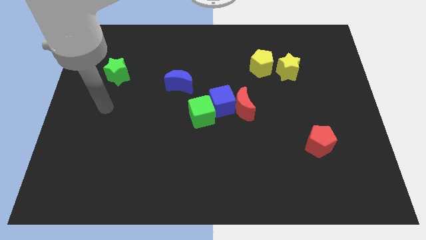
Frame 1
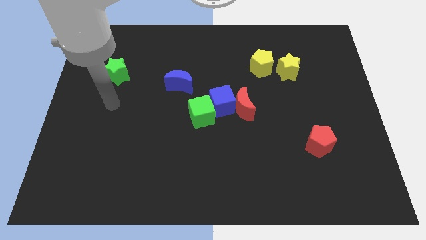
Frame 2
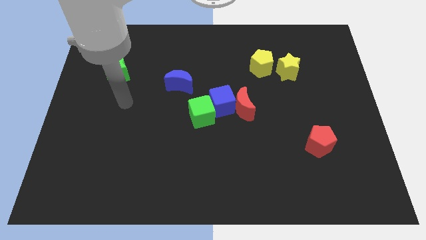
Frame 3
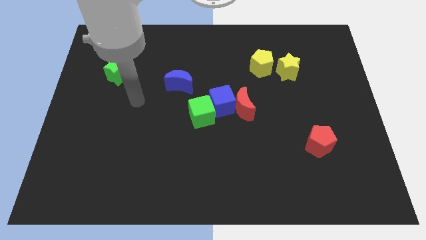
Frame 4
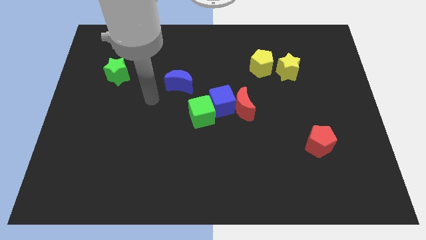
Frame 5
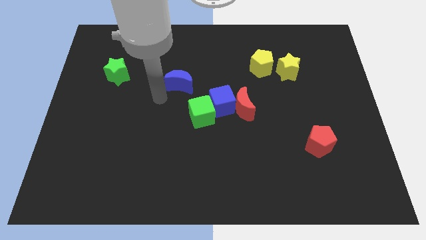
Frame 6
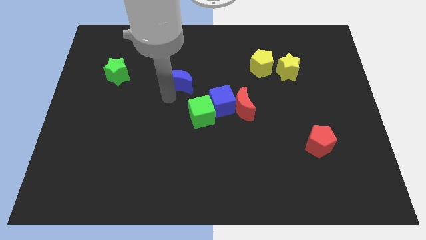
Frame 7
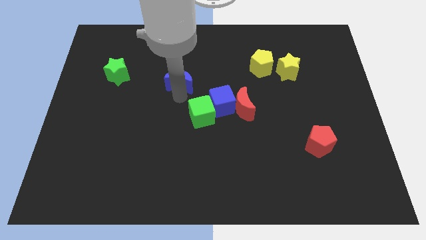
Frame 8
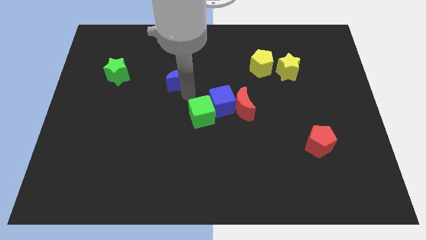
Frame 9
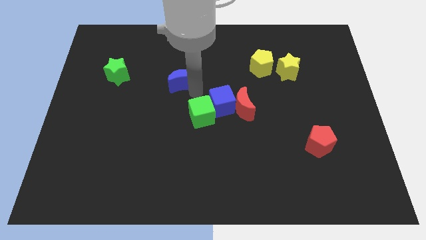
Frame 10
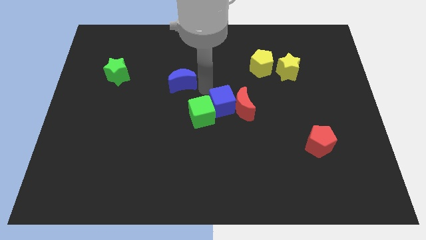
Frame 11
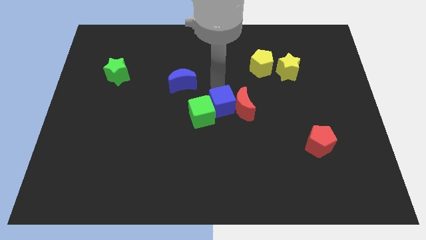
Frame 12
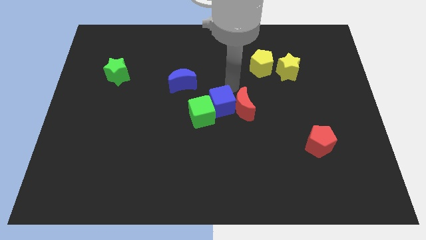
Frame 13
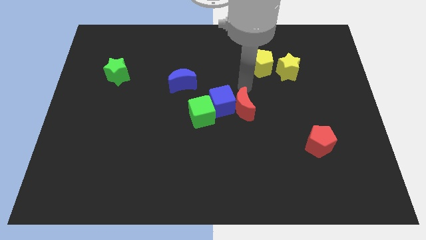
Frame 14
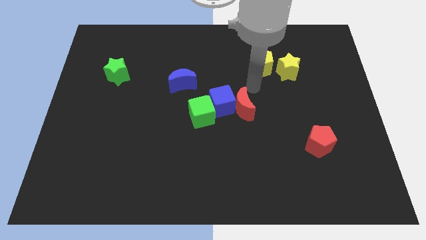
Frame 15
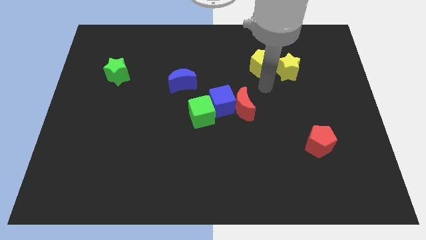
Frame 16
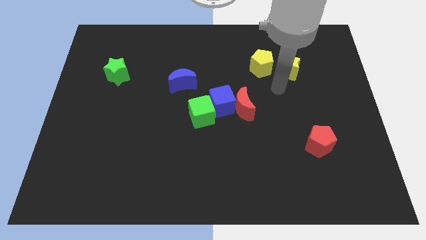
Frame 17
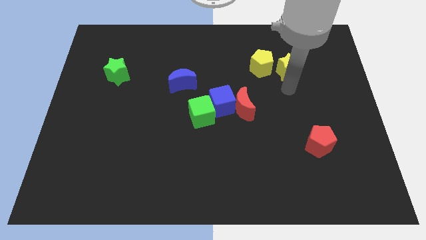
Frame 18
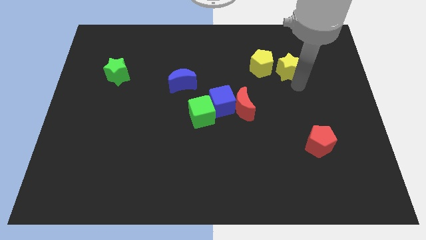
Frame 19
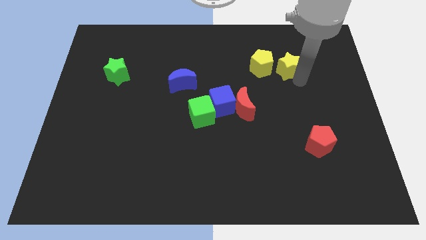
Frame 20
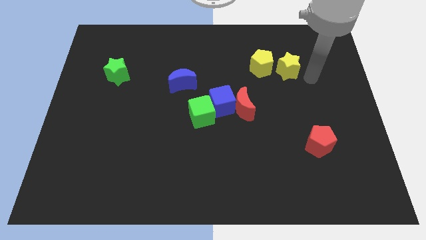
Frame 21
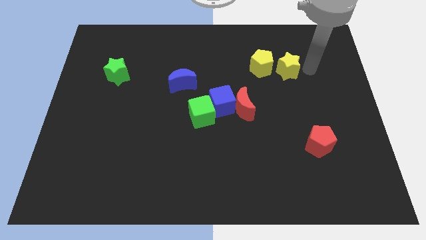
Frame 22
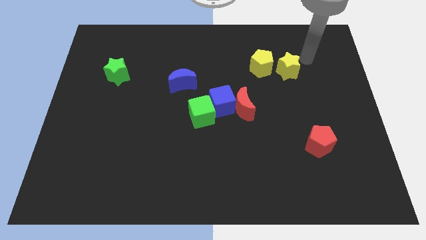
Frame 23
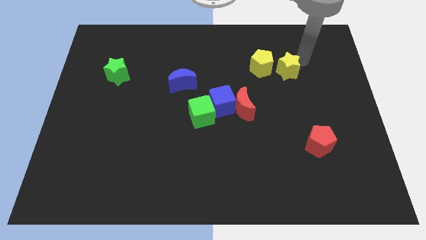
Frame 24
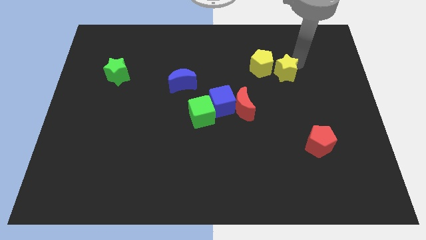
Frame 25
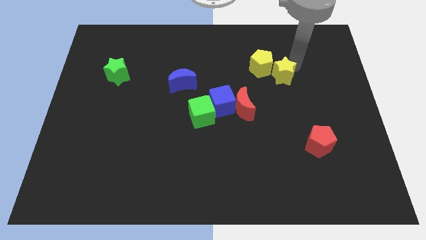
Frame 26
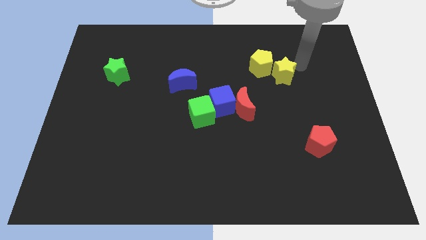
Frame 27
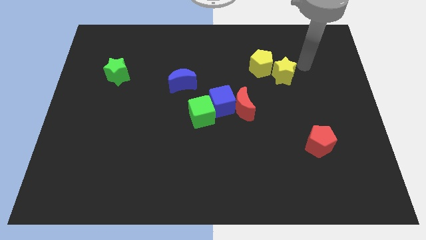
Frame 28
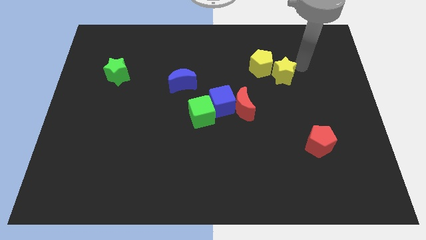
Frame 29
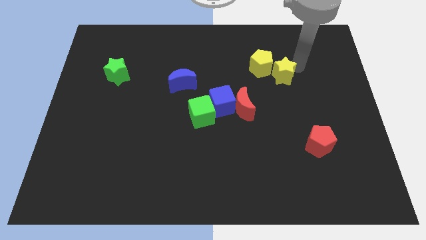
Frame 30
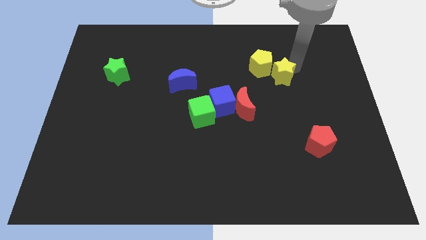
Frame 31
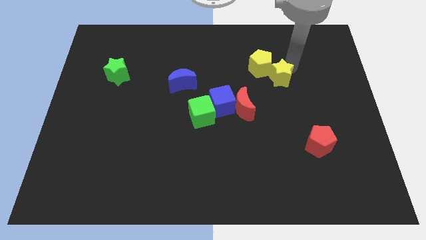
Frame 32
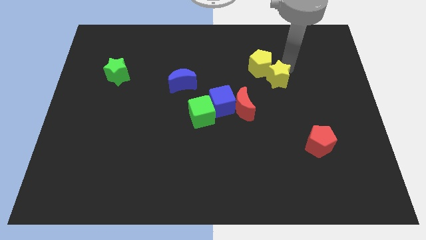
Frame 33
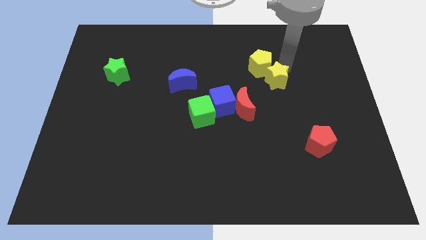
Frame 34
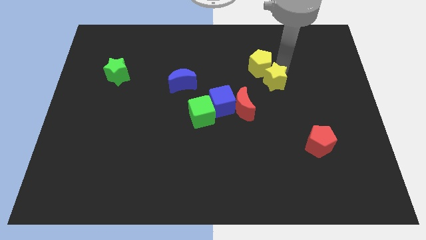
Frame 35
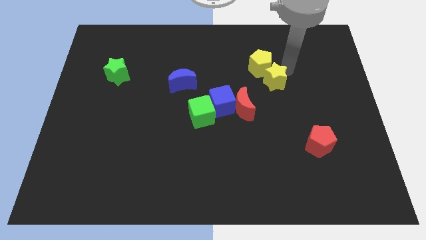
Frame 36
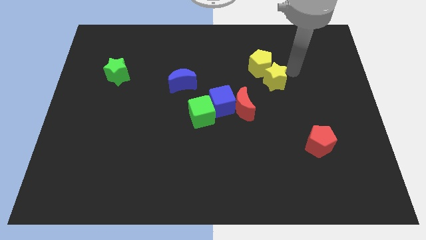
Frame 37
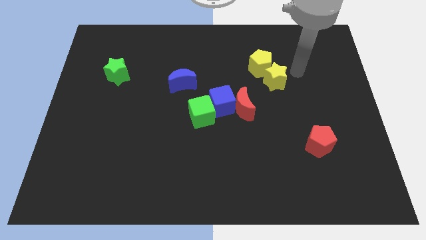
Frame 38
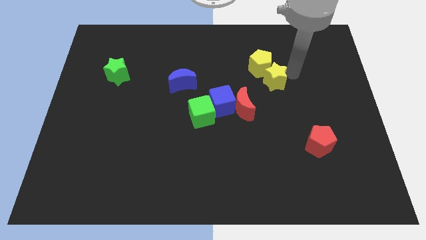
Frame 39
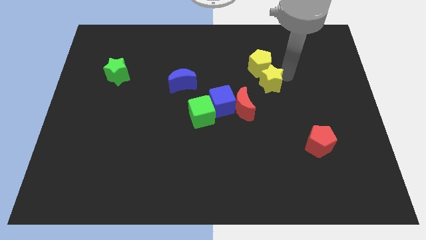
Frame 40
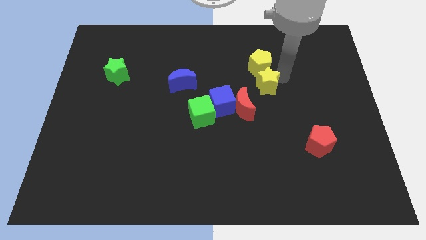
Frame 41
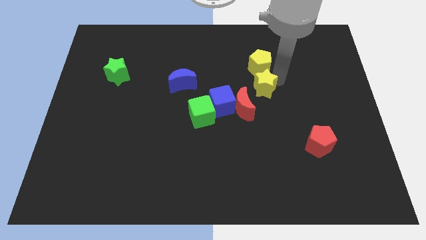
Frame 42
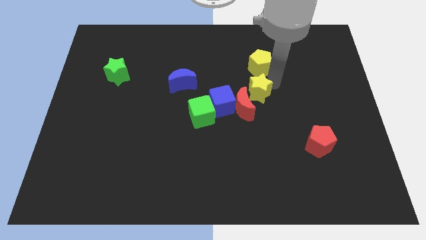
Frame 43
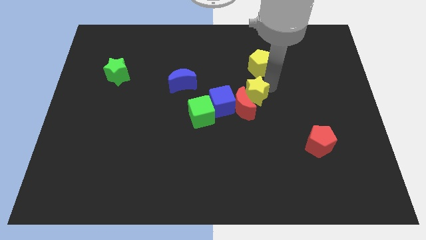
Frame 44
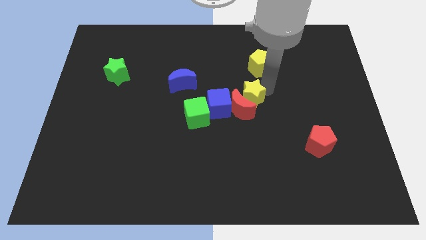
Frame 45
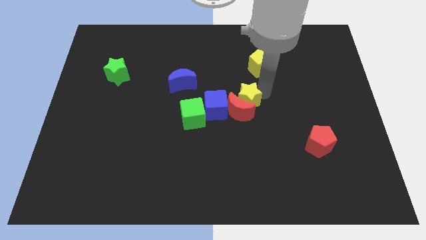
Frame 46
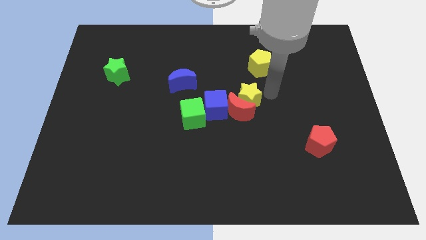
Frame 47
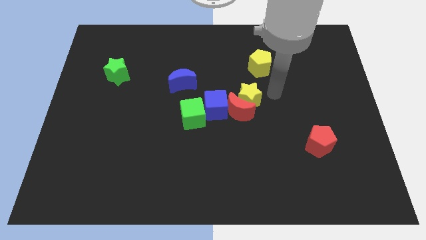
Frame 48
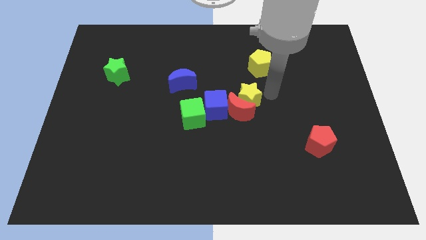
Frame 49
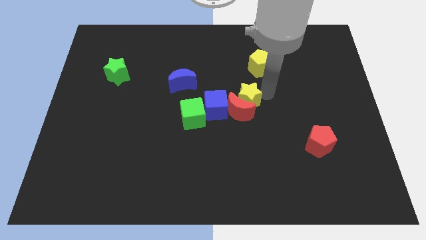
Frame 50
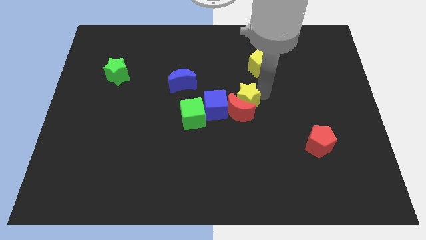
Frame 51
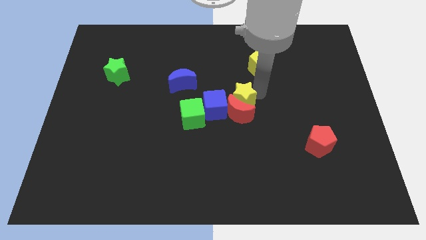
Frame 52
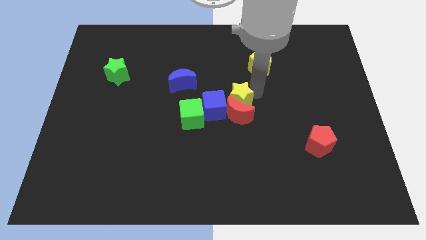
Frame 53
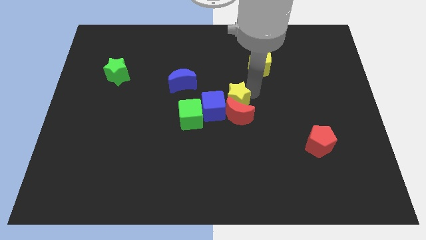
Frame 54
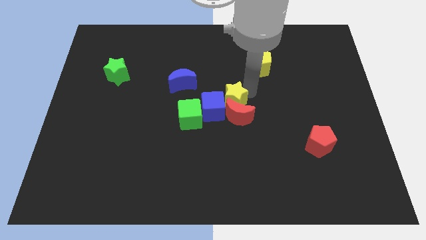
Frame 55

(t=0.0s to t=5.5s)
slide the yellow star towards the blue cube

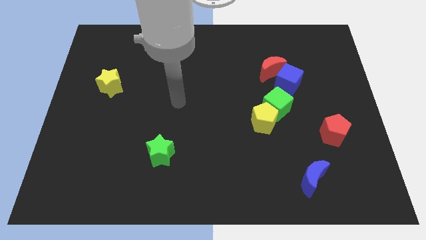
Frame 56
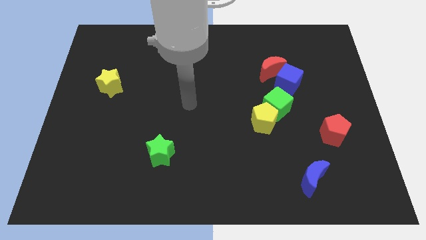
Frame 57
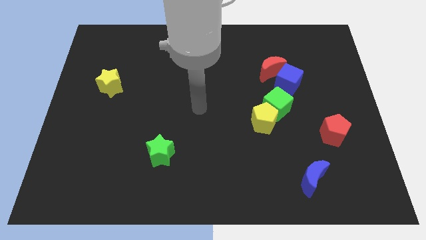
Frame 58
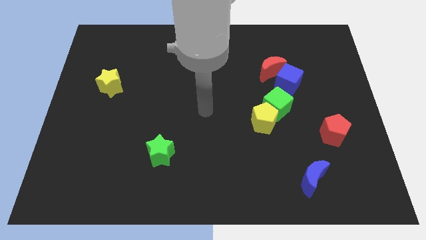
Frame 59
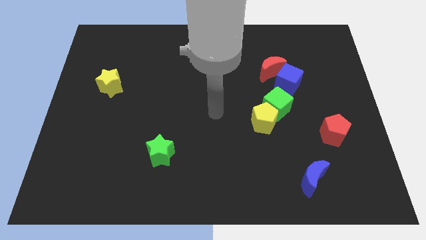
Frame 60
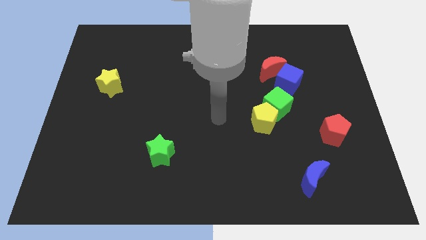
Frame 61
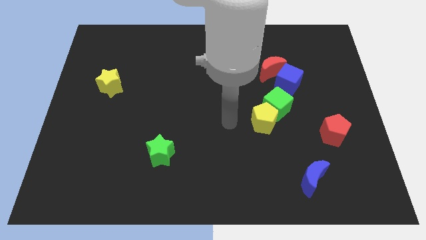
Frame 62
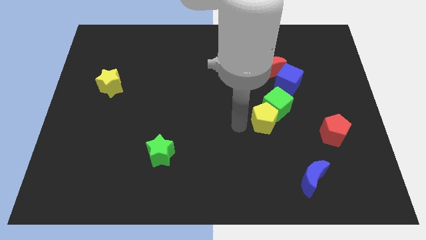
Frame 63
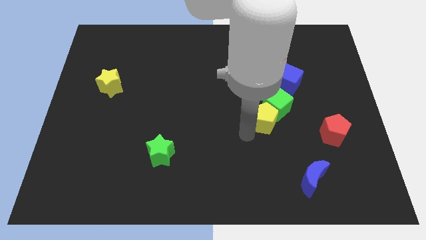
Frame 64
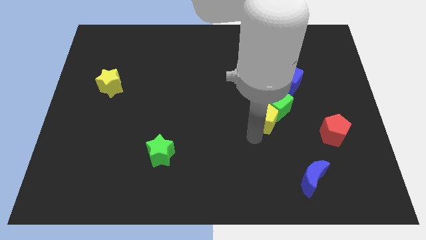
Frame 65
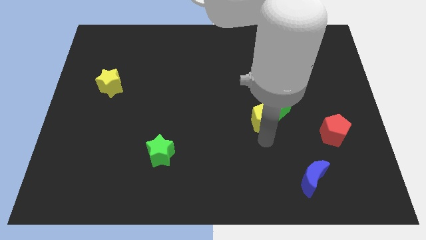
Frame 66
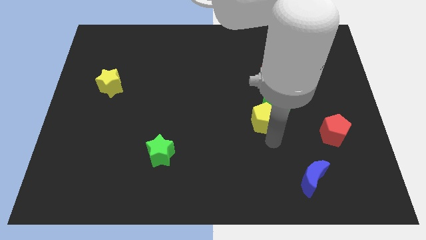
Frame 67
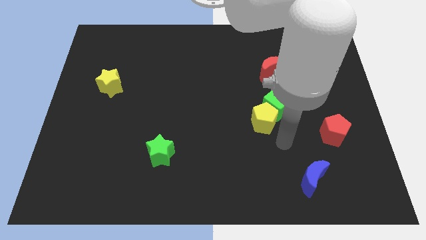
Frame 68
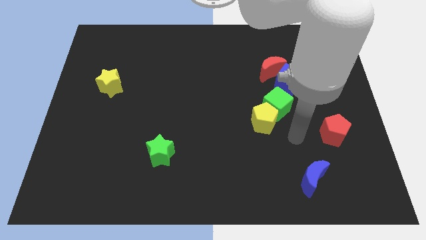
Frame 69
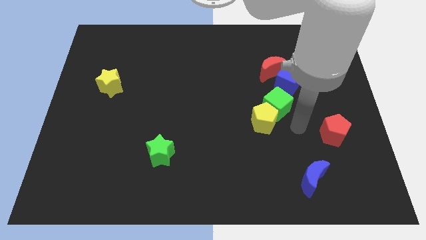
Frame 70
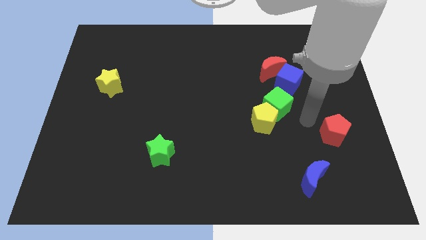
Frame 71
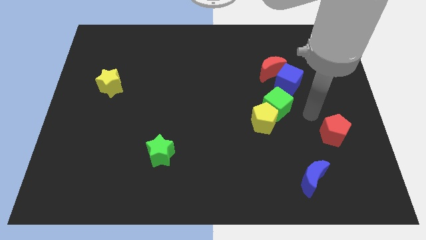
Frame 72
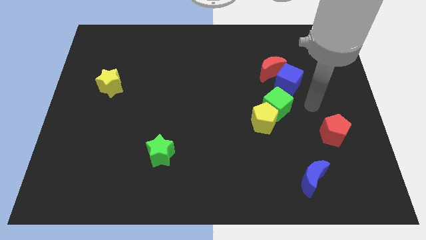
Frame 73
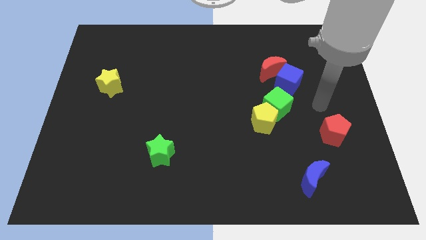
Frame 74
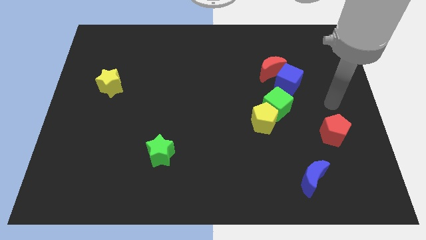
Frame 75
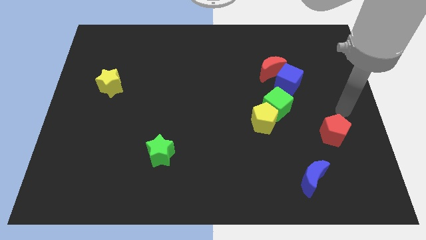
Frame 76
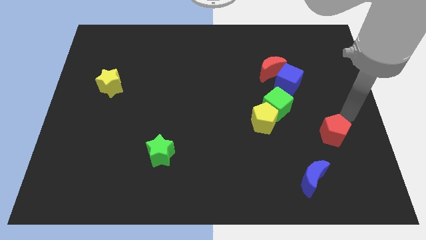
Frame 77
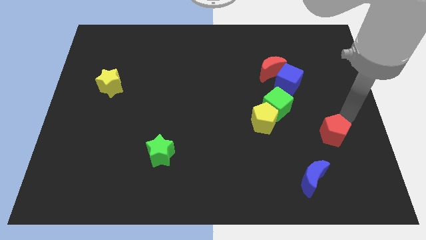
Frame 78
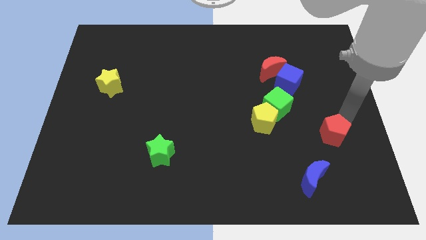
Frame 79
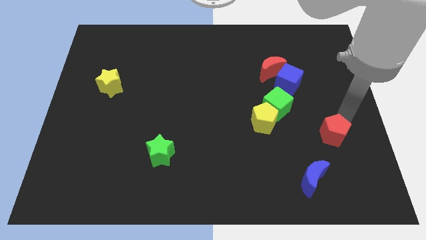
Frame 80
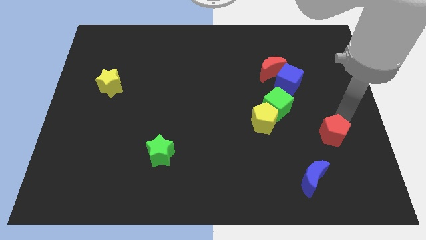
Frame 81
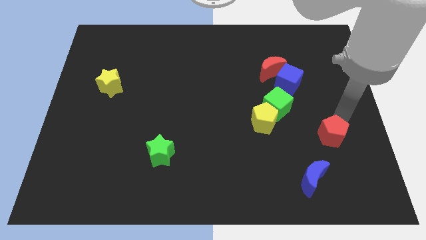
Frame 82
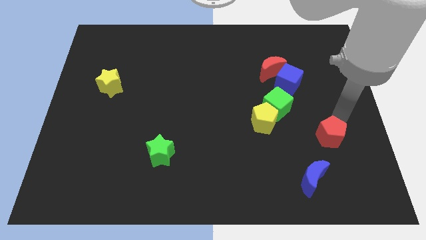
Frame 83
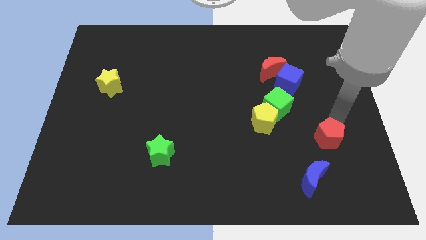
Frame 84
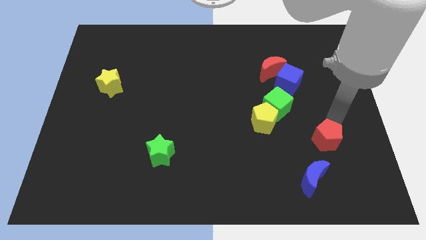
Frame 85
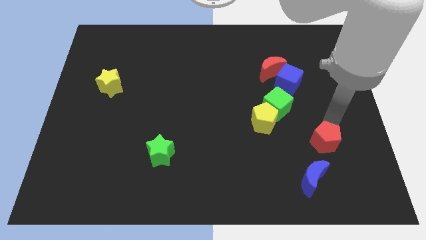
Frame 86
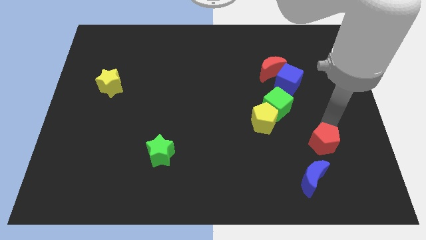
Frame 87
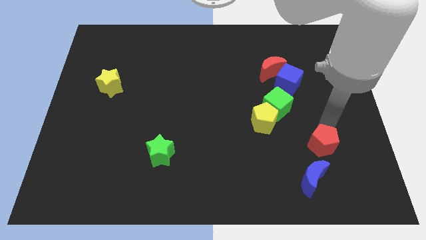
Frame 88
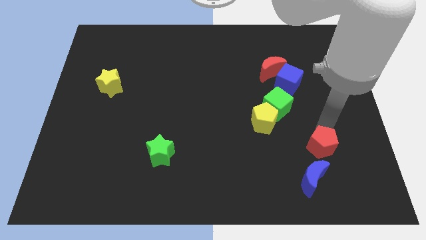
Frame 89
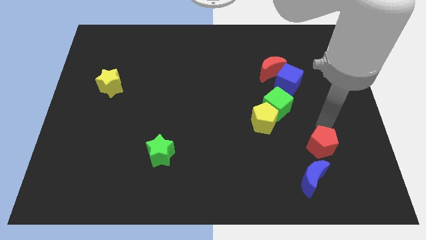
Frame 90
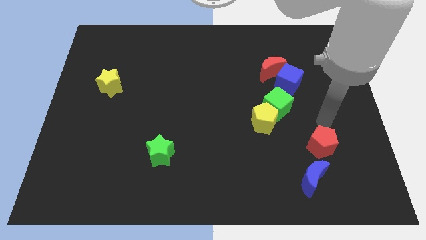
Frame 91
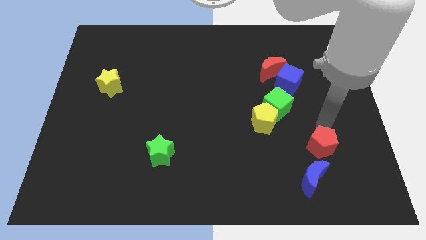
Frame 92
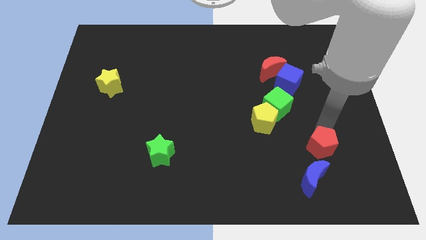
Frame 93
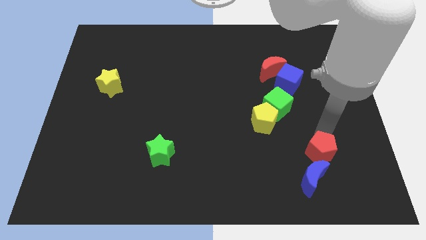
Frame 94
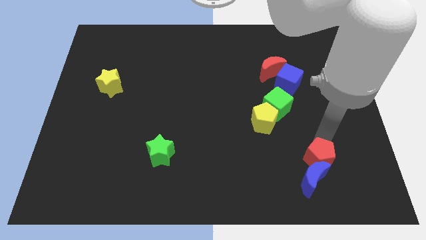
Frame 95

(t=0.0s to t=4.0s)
put the red pentagon towards the blue moon
